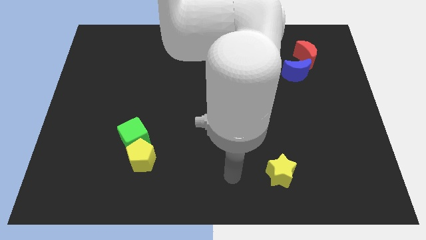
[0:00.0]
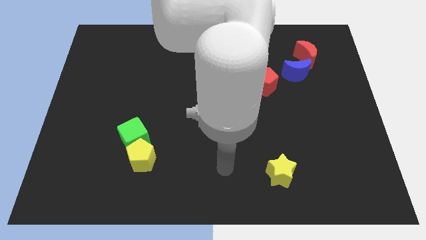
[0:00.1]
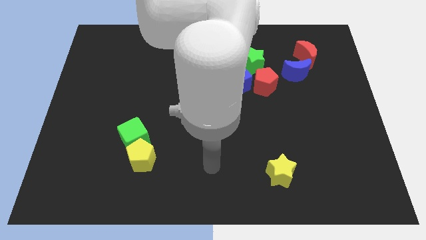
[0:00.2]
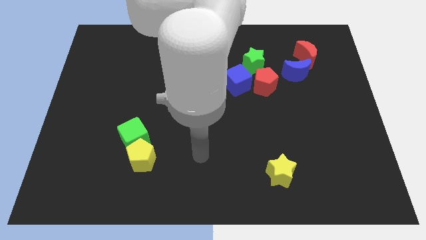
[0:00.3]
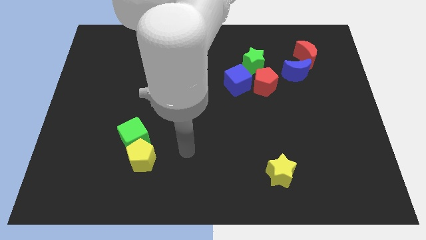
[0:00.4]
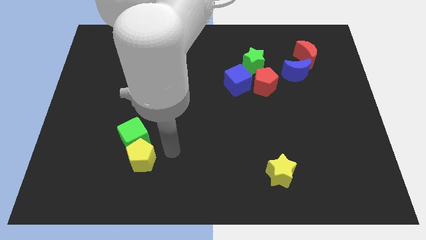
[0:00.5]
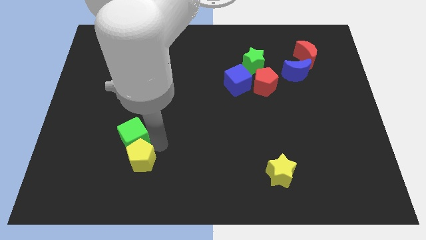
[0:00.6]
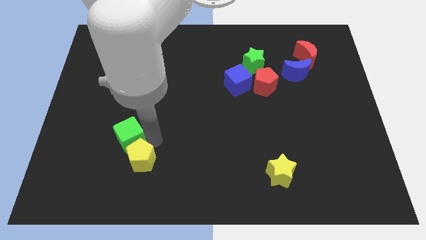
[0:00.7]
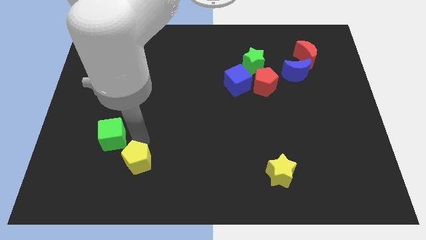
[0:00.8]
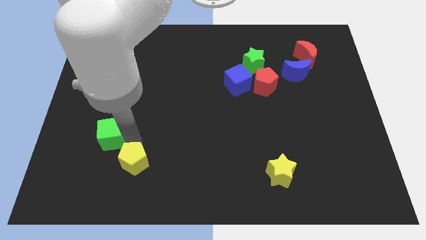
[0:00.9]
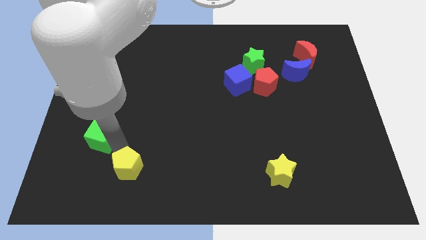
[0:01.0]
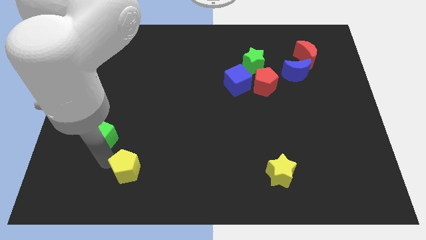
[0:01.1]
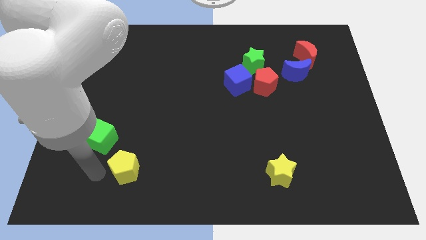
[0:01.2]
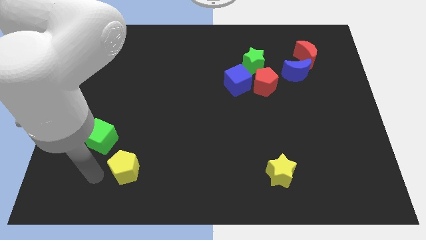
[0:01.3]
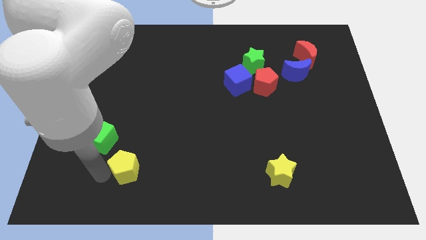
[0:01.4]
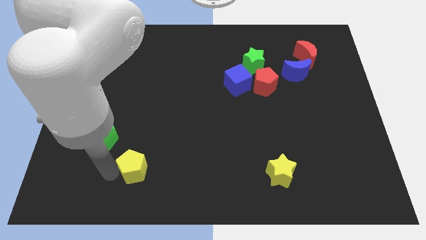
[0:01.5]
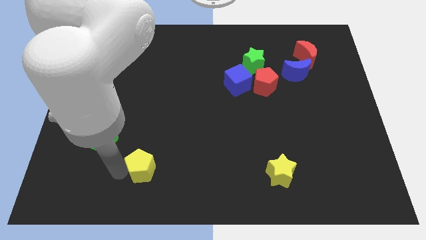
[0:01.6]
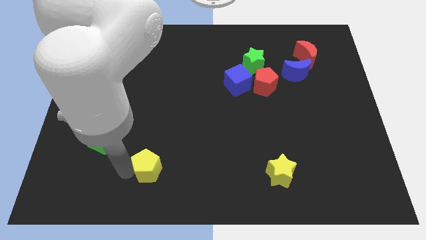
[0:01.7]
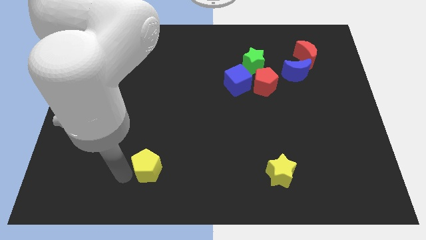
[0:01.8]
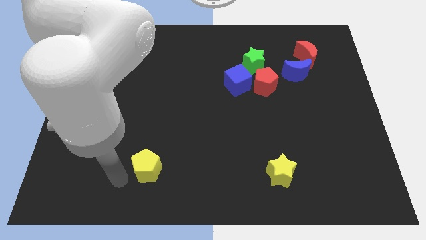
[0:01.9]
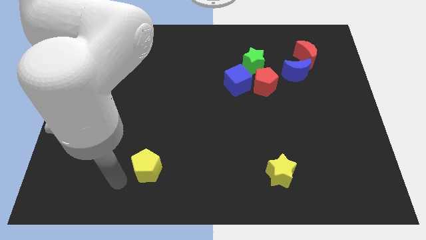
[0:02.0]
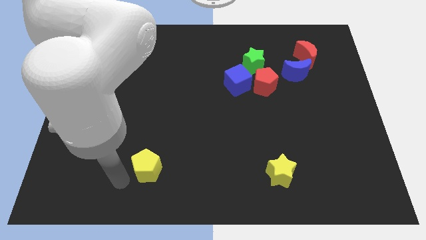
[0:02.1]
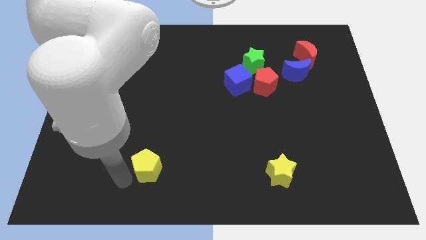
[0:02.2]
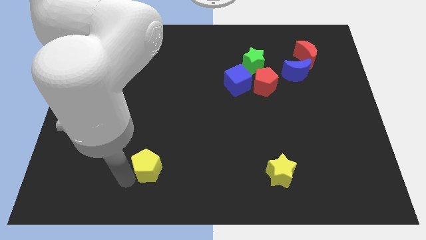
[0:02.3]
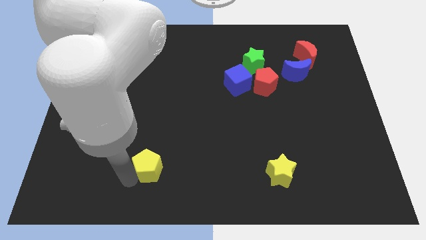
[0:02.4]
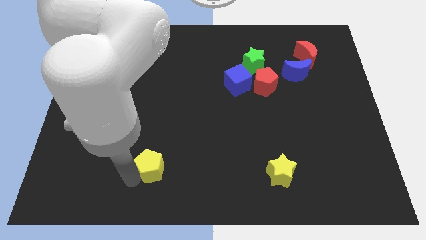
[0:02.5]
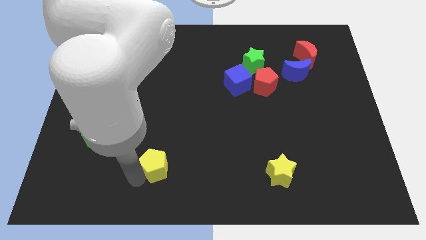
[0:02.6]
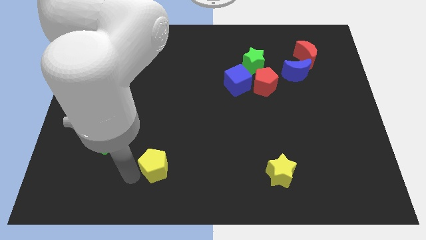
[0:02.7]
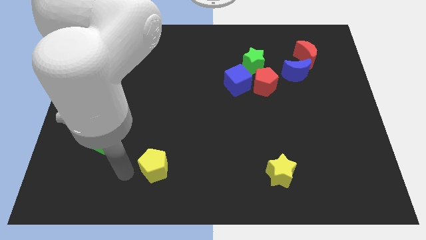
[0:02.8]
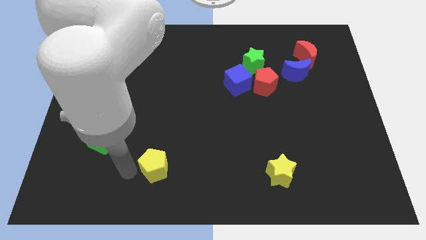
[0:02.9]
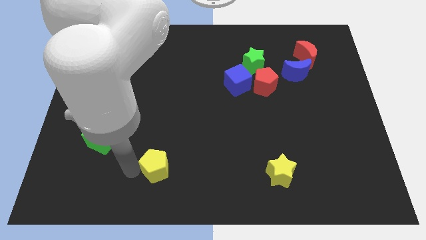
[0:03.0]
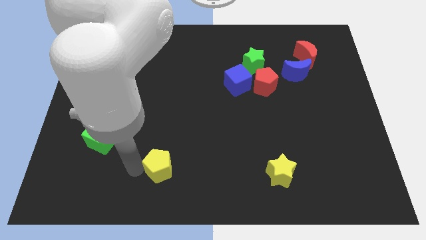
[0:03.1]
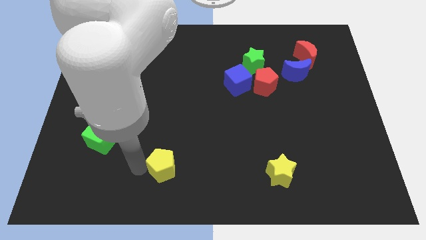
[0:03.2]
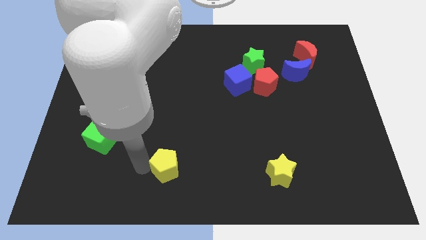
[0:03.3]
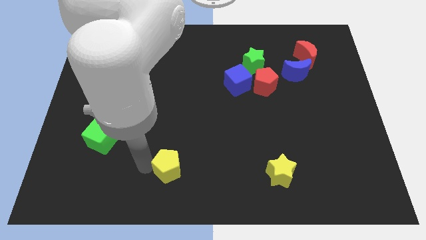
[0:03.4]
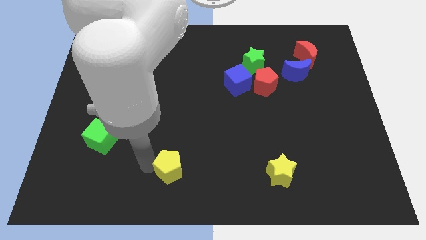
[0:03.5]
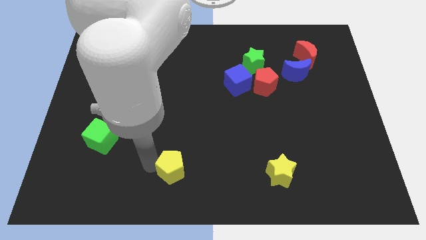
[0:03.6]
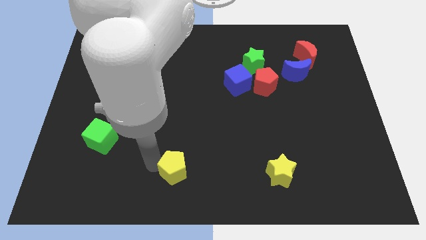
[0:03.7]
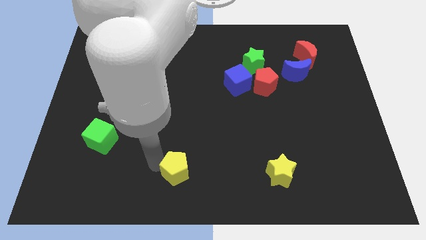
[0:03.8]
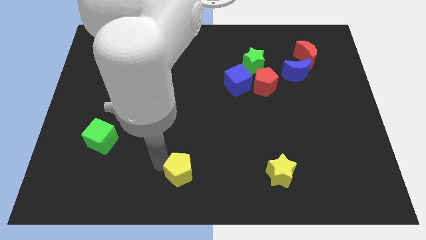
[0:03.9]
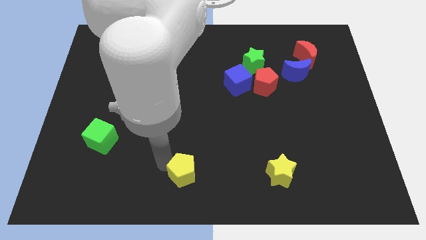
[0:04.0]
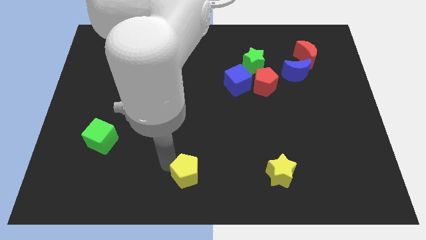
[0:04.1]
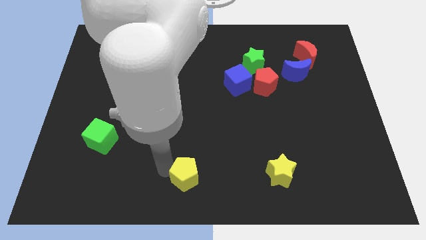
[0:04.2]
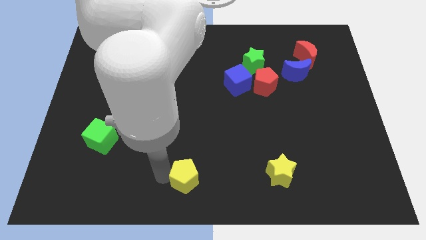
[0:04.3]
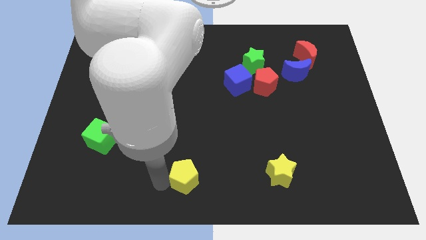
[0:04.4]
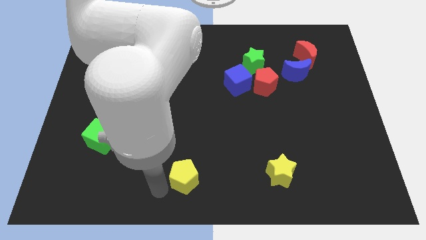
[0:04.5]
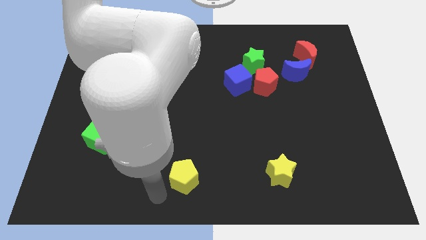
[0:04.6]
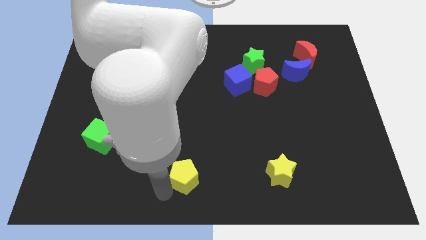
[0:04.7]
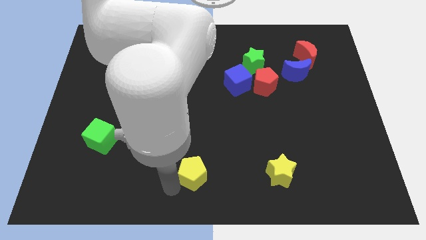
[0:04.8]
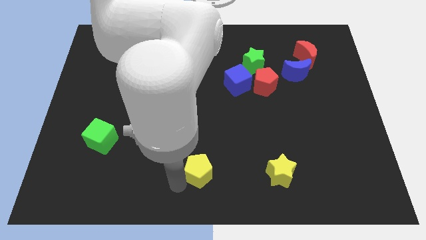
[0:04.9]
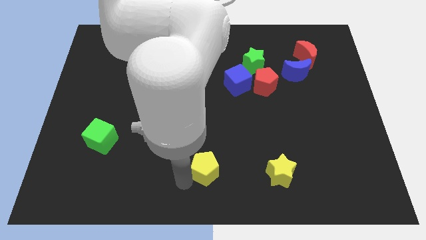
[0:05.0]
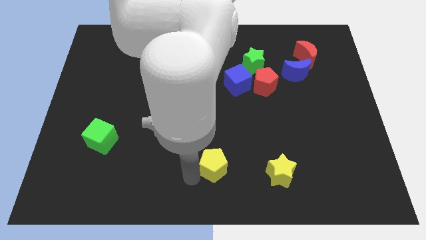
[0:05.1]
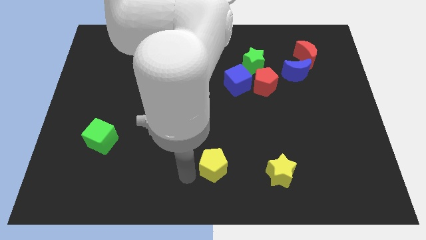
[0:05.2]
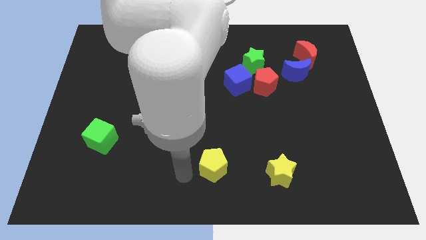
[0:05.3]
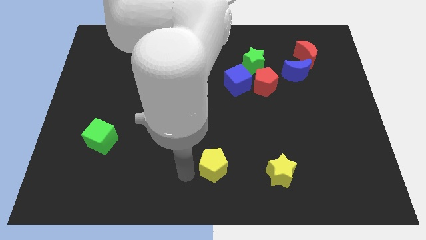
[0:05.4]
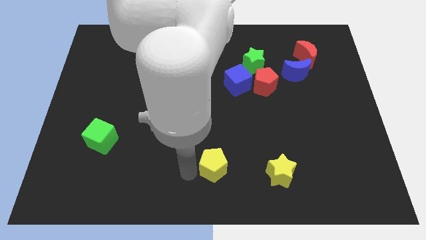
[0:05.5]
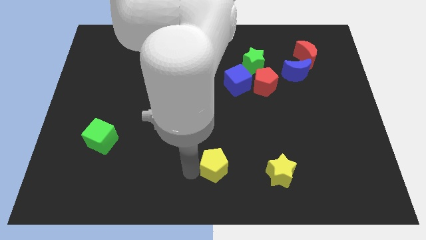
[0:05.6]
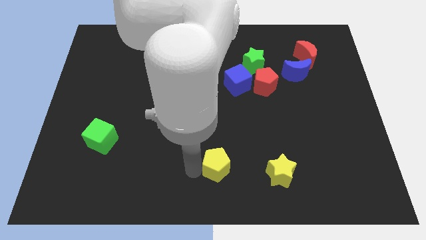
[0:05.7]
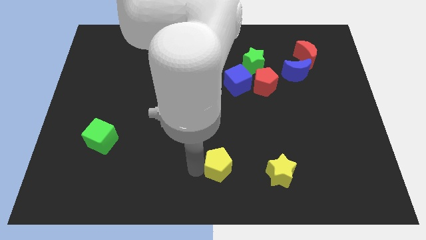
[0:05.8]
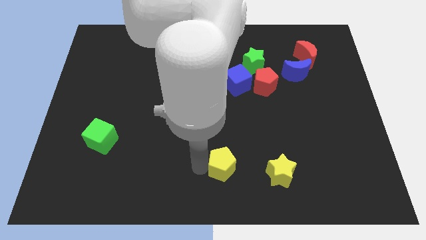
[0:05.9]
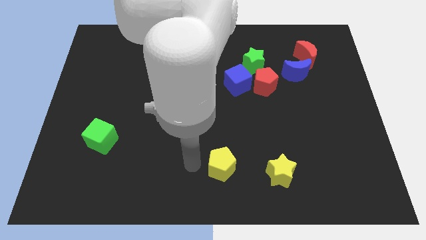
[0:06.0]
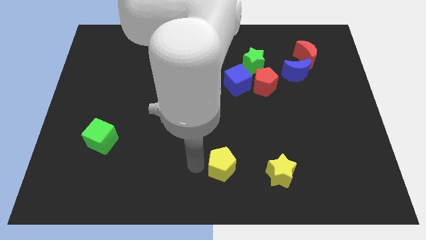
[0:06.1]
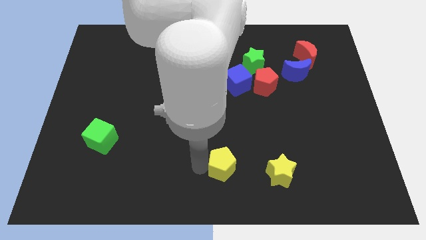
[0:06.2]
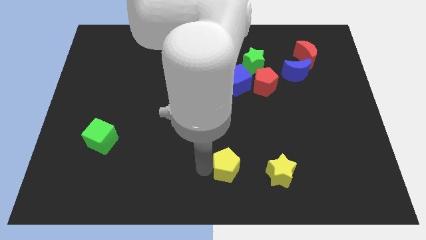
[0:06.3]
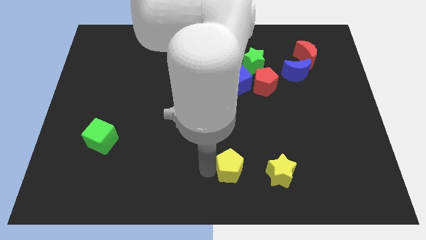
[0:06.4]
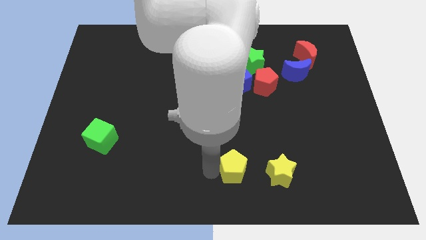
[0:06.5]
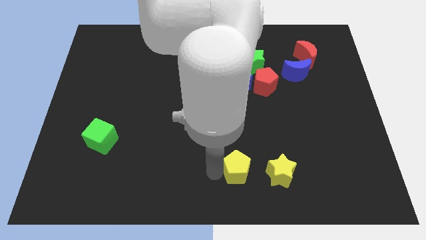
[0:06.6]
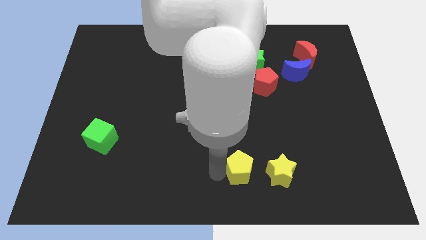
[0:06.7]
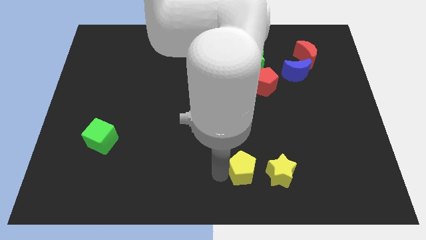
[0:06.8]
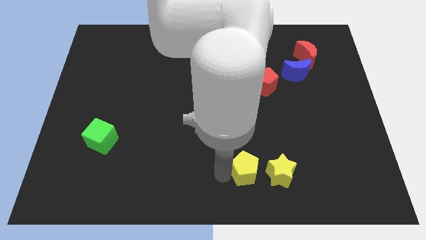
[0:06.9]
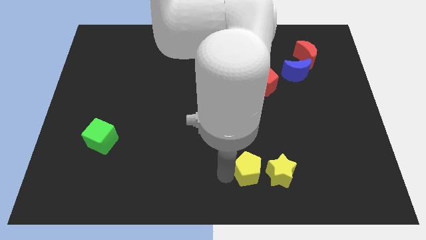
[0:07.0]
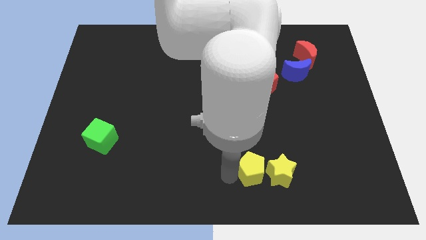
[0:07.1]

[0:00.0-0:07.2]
move the yellow pentagon to the yellow star

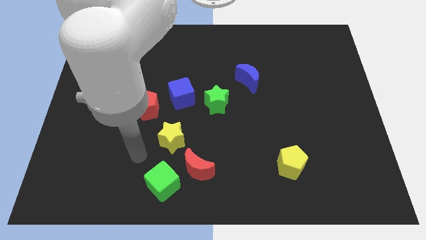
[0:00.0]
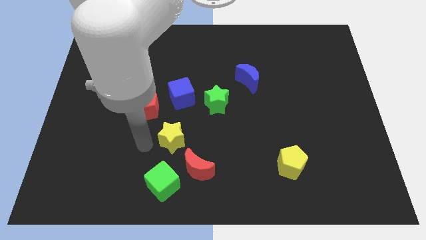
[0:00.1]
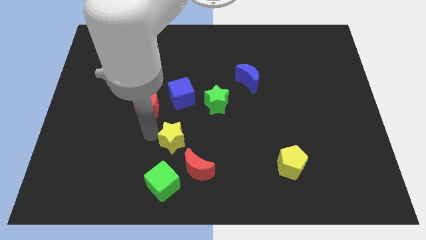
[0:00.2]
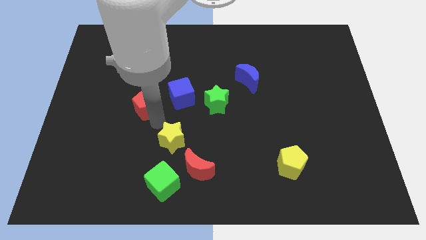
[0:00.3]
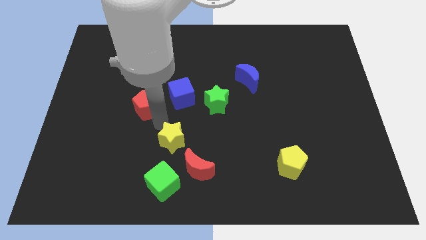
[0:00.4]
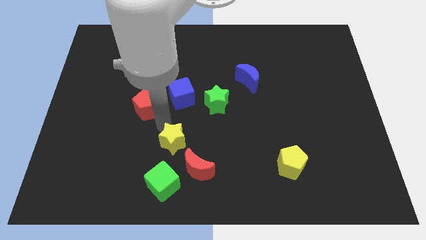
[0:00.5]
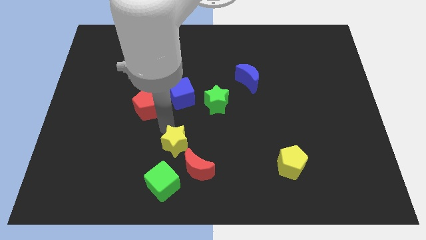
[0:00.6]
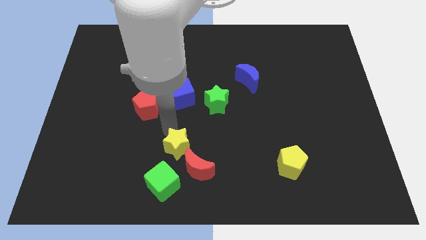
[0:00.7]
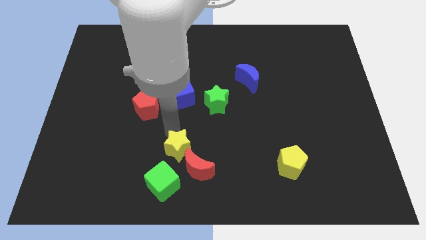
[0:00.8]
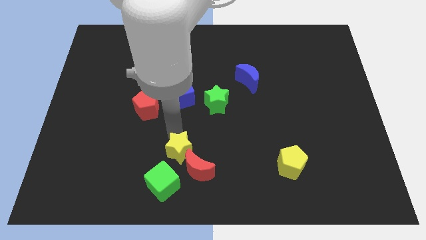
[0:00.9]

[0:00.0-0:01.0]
slide the yellow star close to the red moon
